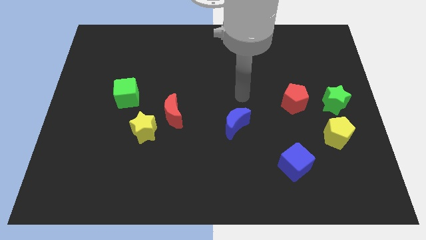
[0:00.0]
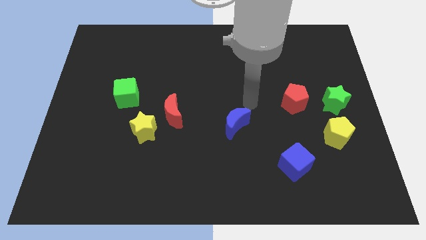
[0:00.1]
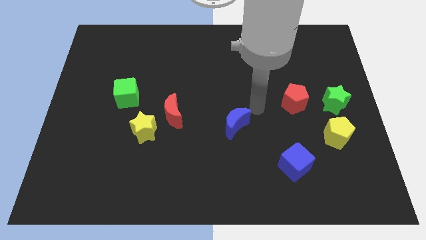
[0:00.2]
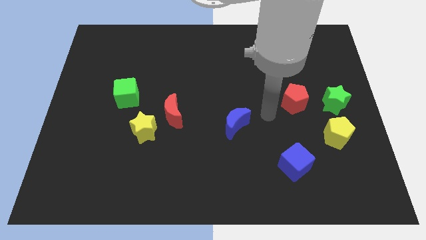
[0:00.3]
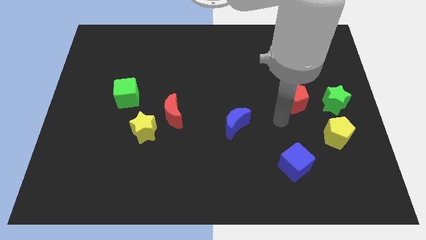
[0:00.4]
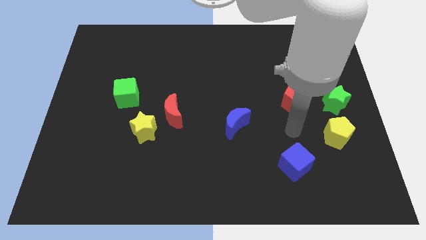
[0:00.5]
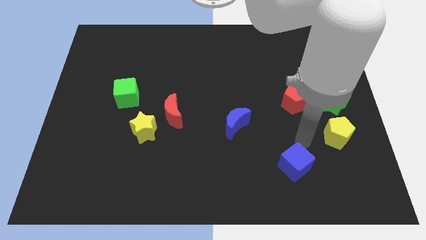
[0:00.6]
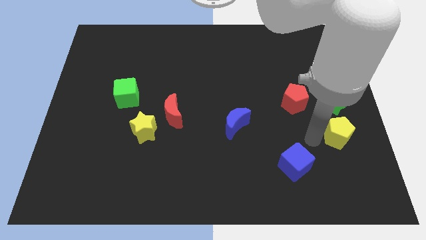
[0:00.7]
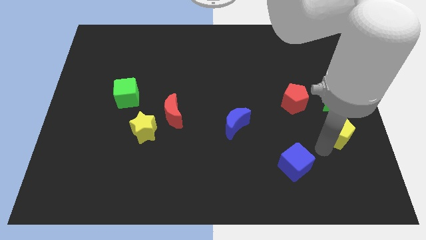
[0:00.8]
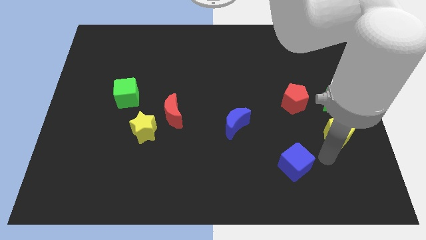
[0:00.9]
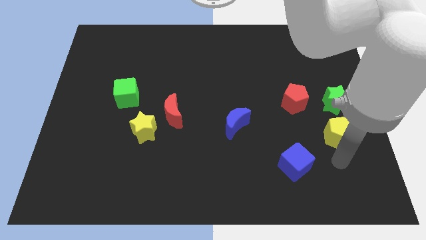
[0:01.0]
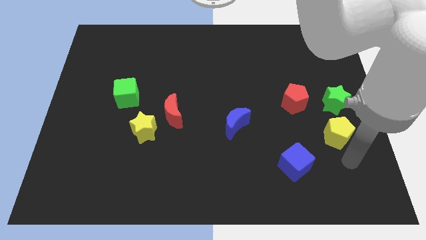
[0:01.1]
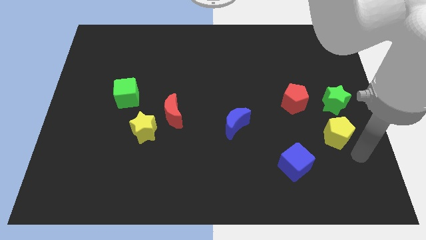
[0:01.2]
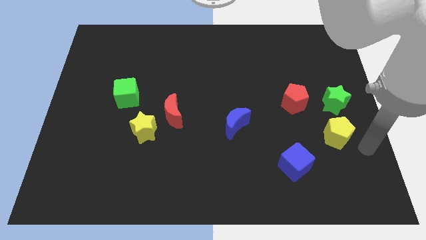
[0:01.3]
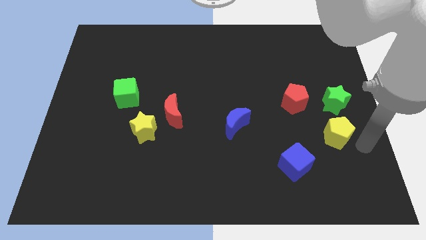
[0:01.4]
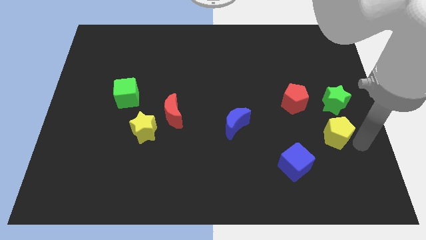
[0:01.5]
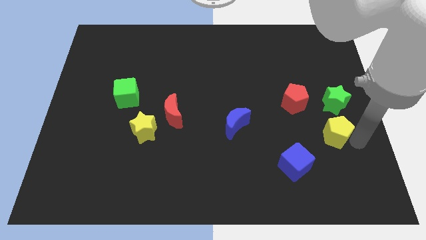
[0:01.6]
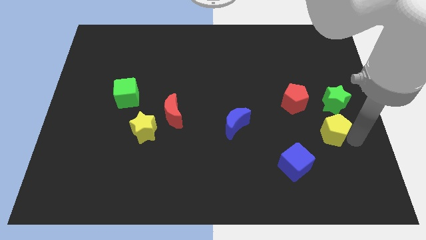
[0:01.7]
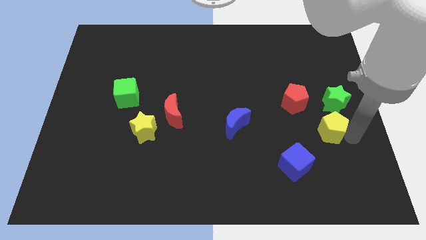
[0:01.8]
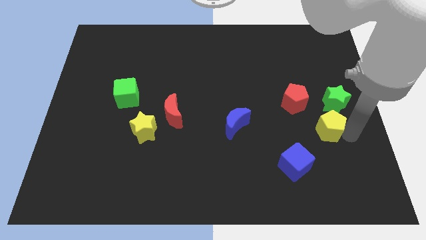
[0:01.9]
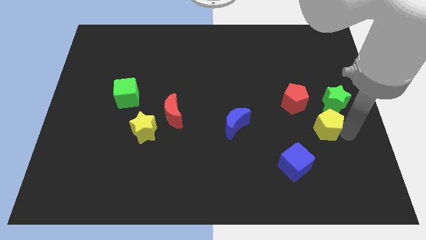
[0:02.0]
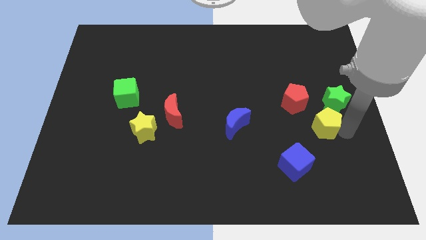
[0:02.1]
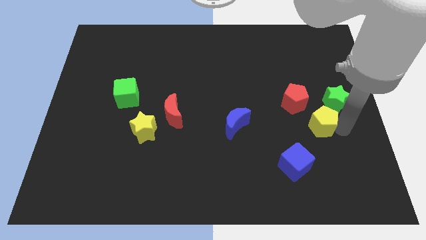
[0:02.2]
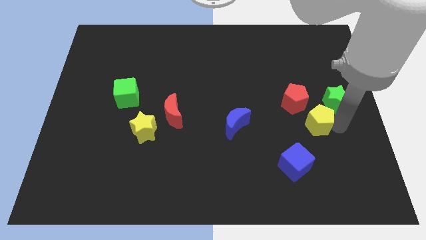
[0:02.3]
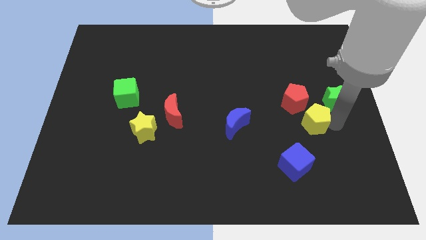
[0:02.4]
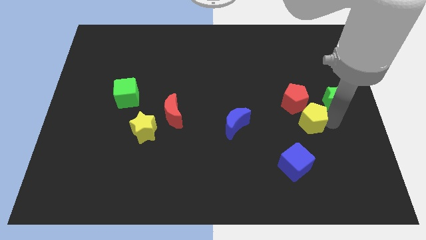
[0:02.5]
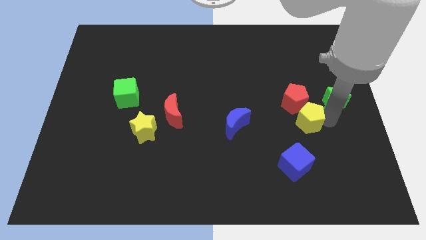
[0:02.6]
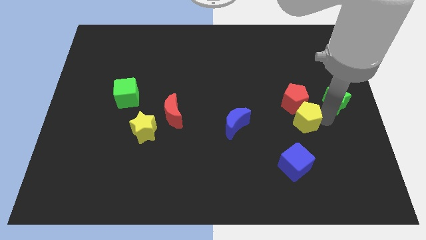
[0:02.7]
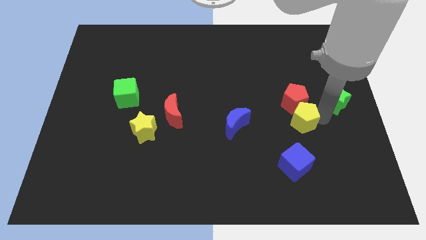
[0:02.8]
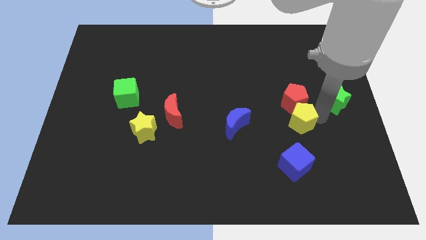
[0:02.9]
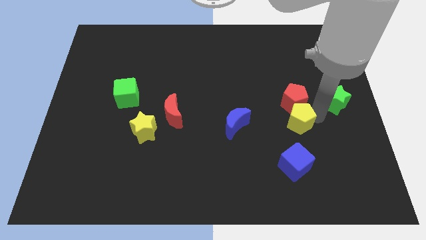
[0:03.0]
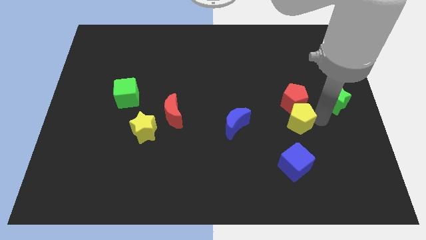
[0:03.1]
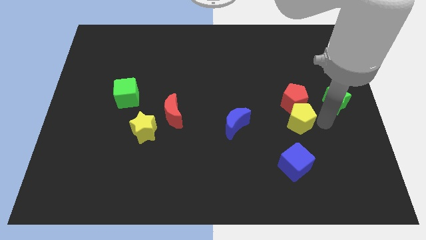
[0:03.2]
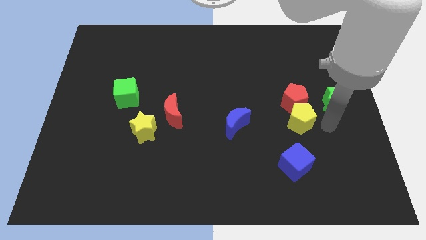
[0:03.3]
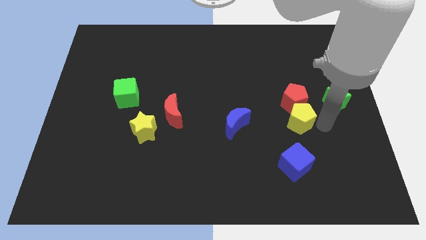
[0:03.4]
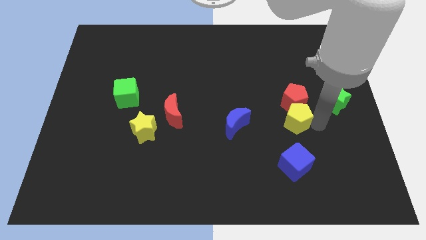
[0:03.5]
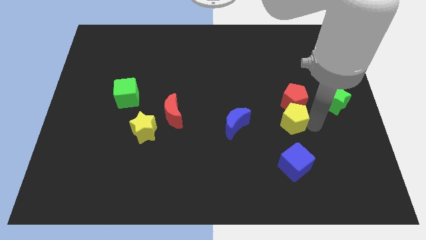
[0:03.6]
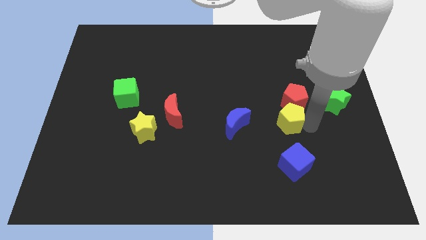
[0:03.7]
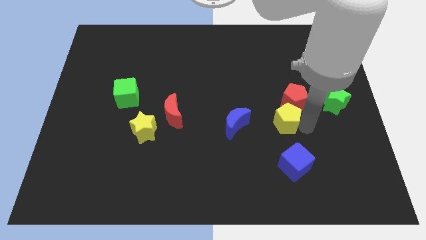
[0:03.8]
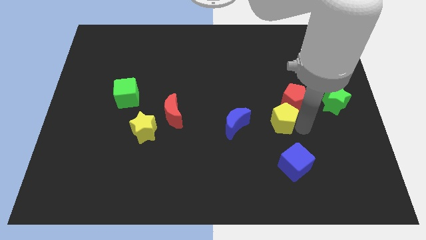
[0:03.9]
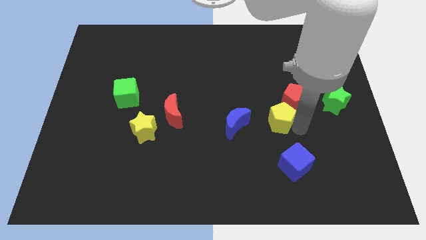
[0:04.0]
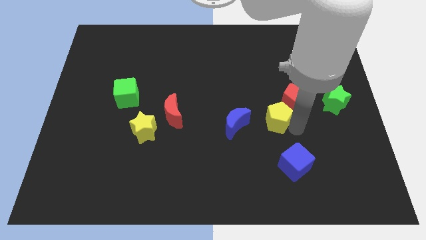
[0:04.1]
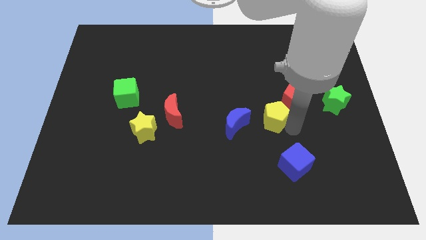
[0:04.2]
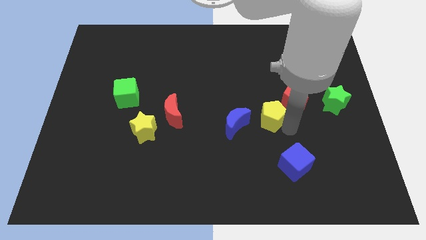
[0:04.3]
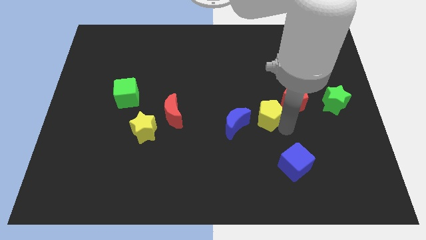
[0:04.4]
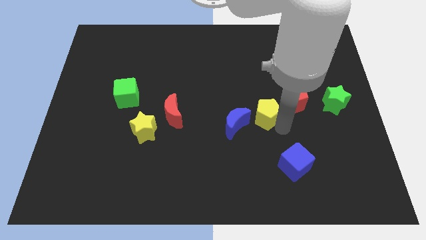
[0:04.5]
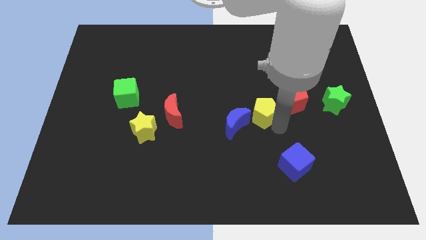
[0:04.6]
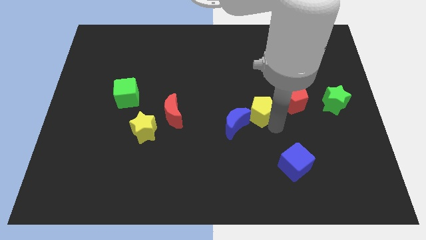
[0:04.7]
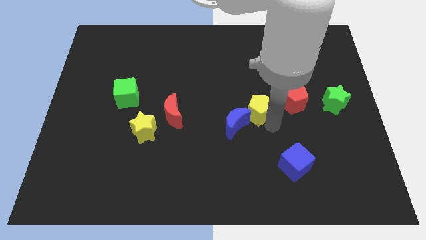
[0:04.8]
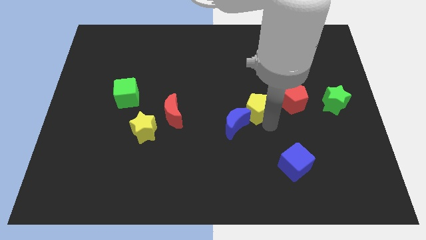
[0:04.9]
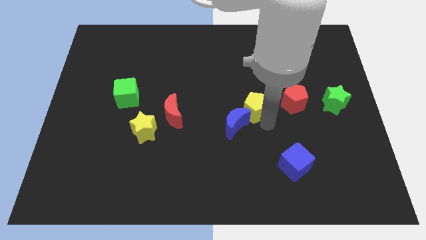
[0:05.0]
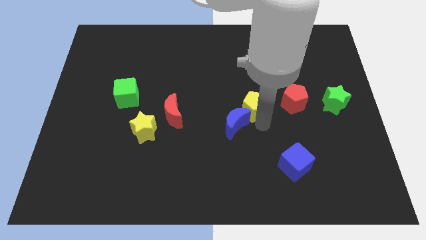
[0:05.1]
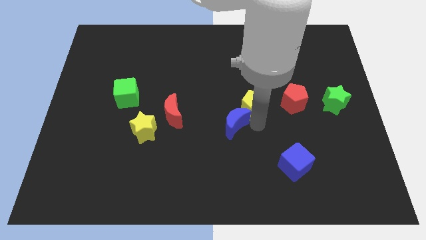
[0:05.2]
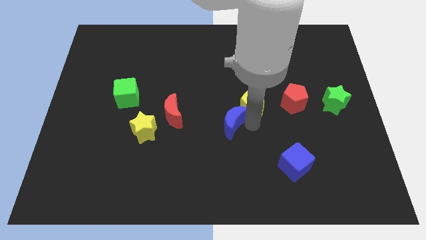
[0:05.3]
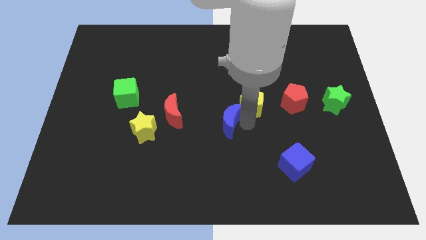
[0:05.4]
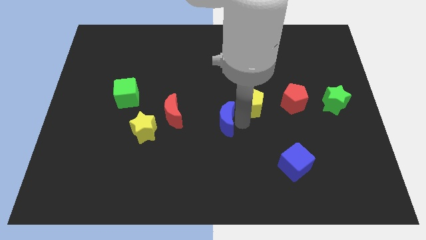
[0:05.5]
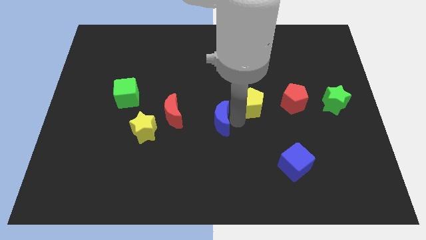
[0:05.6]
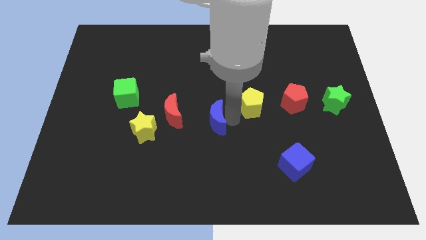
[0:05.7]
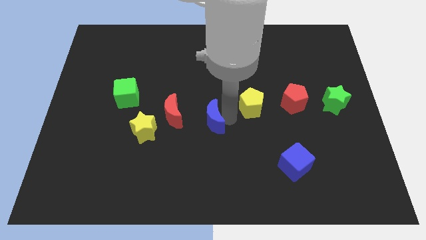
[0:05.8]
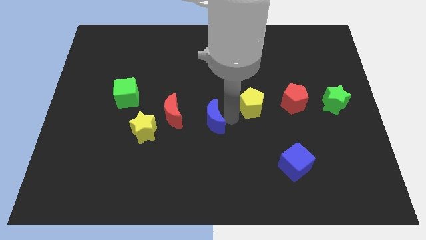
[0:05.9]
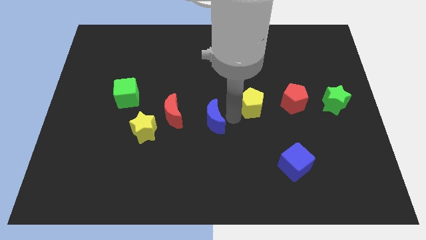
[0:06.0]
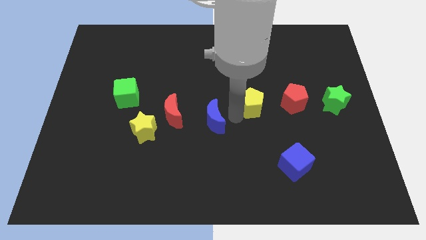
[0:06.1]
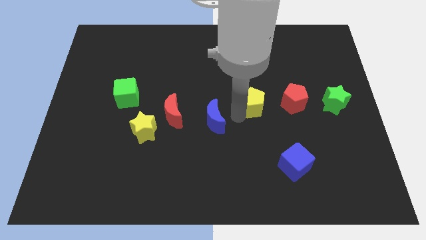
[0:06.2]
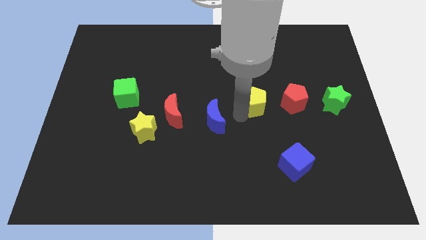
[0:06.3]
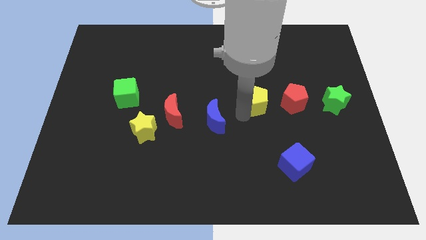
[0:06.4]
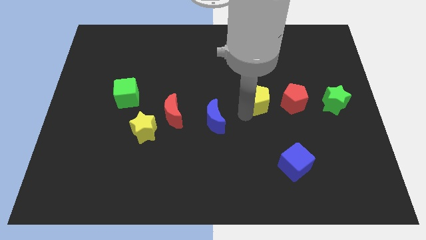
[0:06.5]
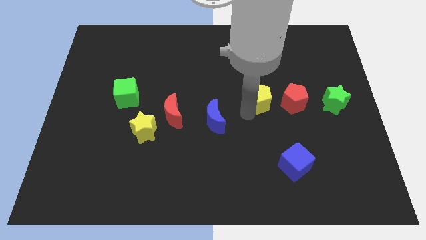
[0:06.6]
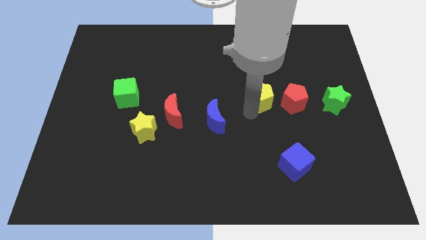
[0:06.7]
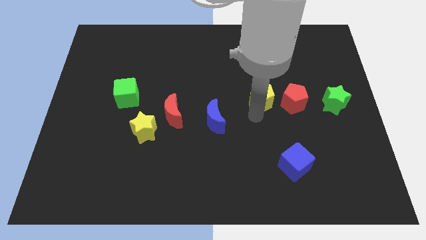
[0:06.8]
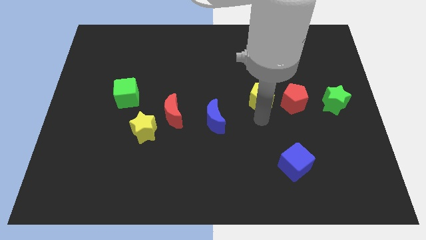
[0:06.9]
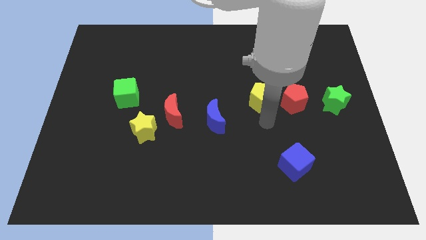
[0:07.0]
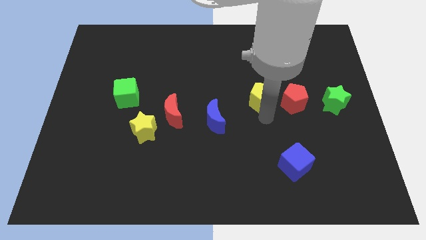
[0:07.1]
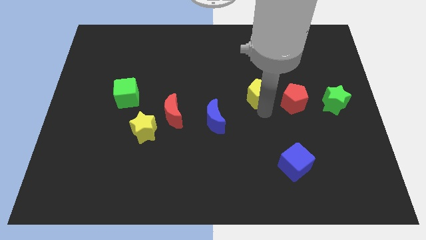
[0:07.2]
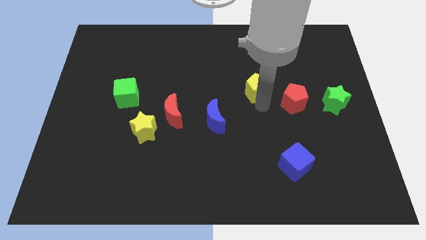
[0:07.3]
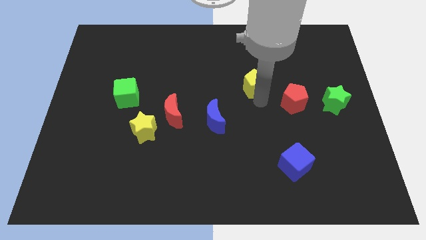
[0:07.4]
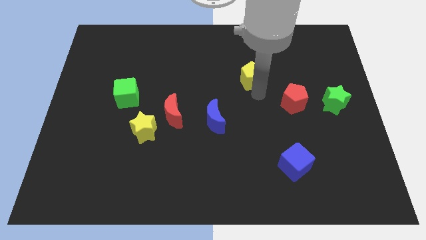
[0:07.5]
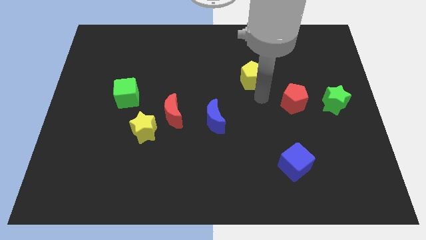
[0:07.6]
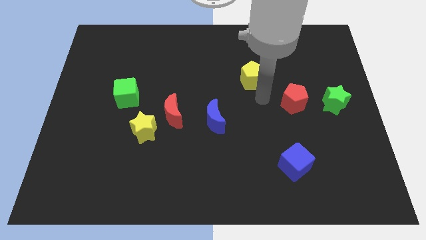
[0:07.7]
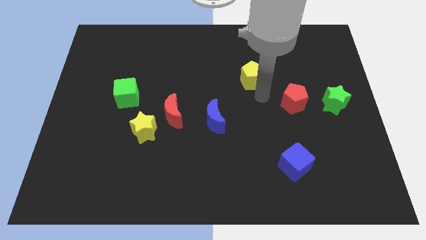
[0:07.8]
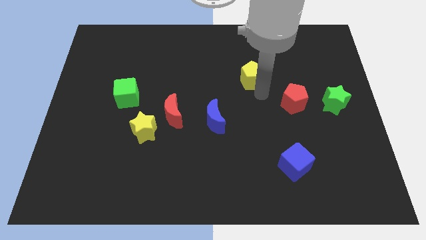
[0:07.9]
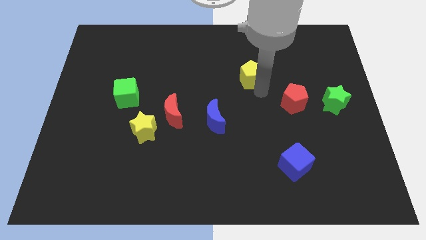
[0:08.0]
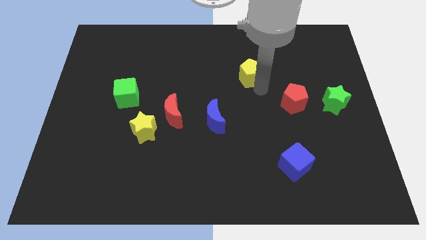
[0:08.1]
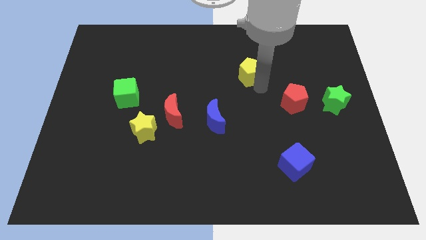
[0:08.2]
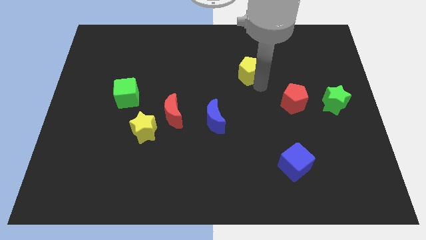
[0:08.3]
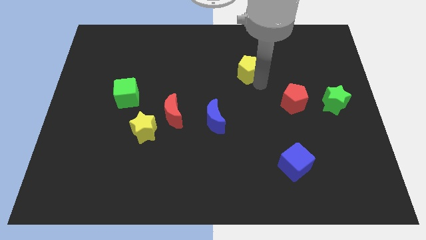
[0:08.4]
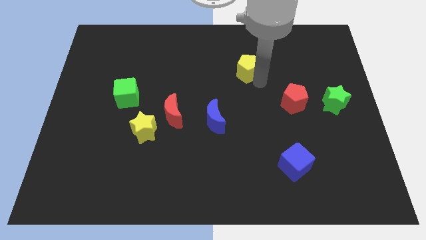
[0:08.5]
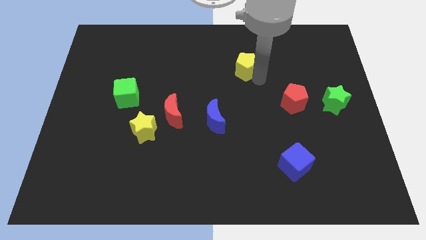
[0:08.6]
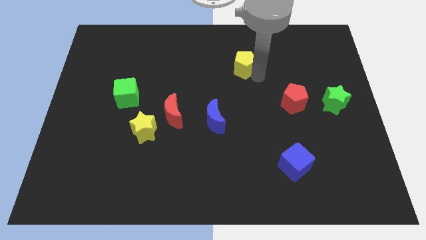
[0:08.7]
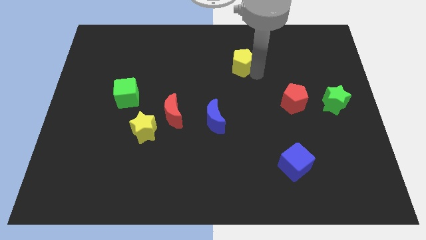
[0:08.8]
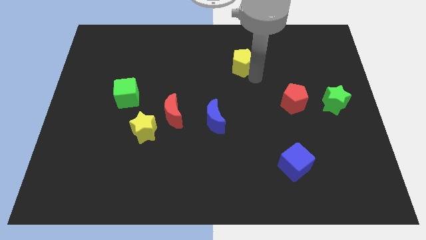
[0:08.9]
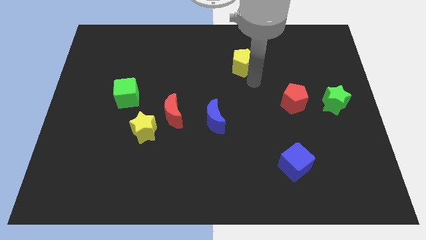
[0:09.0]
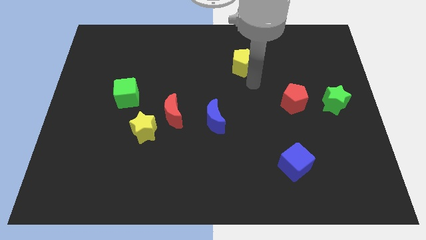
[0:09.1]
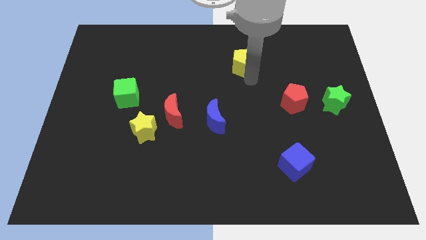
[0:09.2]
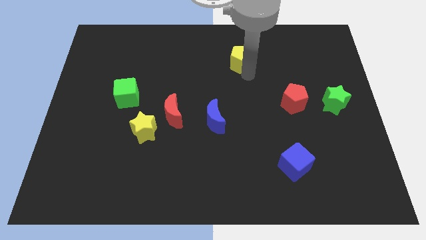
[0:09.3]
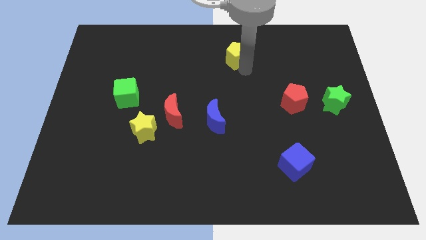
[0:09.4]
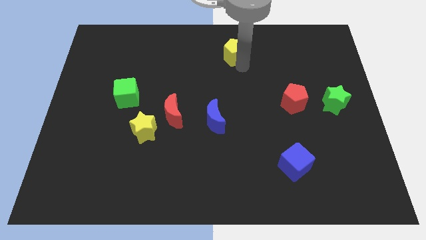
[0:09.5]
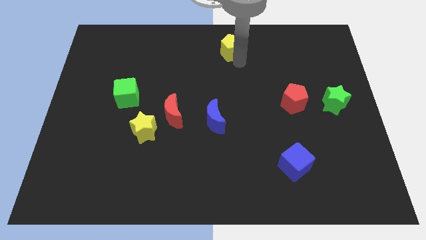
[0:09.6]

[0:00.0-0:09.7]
slide the yellow pentagon to the top side
